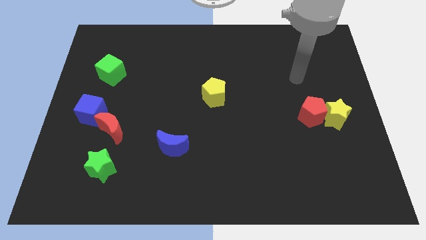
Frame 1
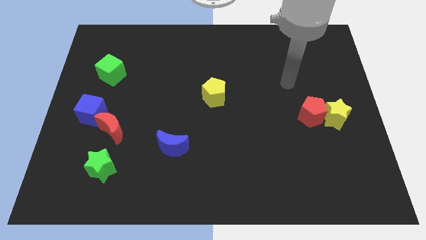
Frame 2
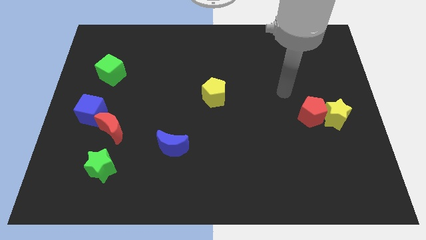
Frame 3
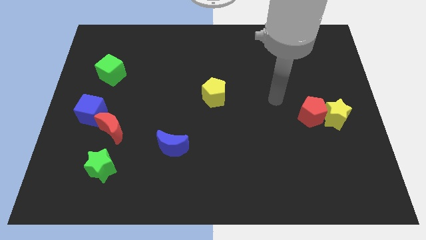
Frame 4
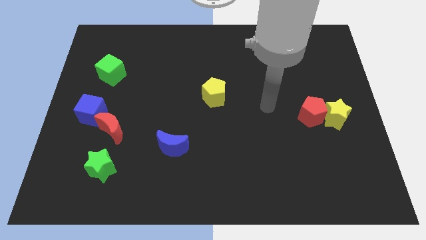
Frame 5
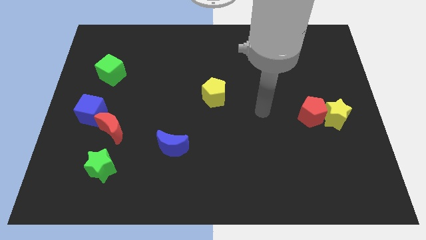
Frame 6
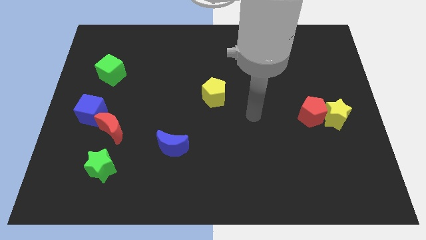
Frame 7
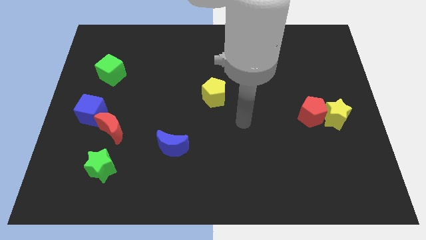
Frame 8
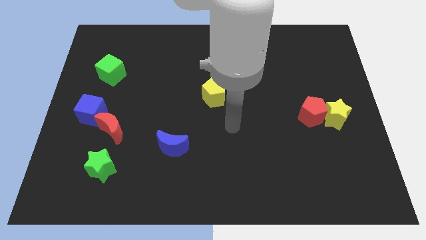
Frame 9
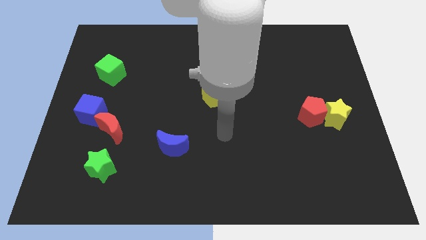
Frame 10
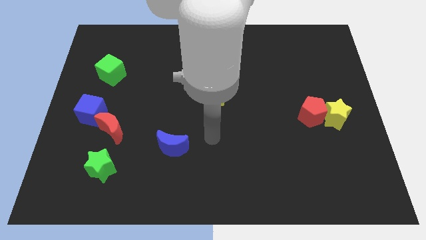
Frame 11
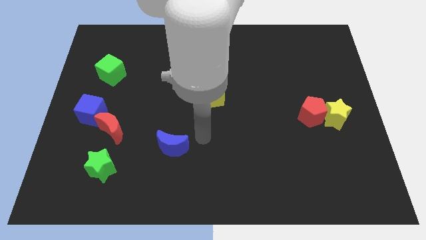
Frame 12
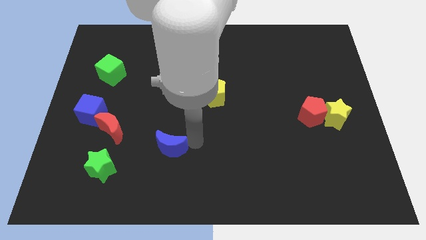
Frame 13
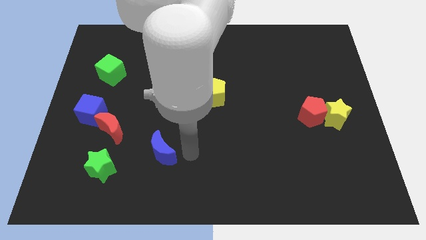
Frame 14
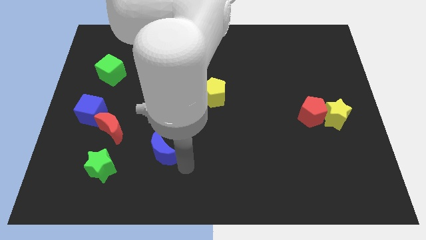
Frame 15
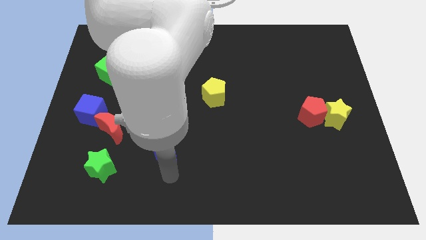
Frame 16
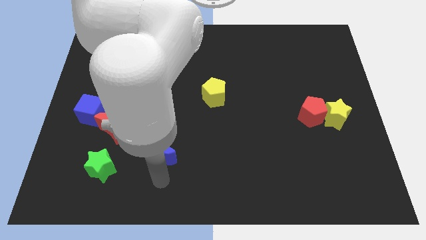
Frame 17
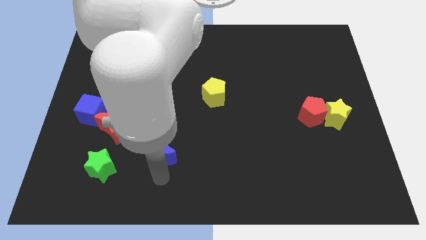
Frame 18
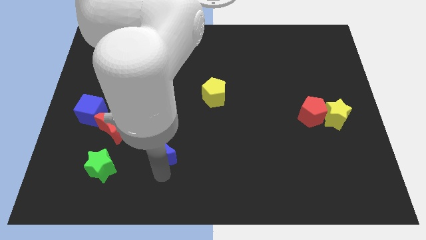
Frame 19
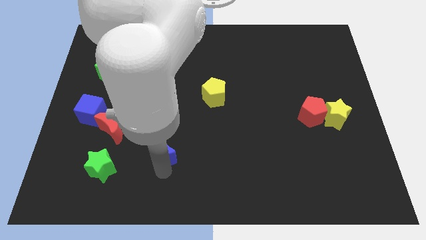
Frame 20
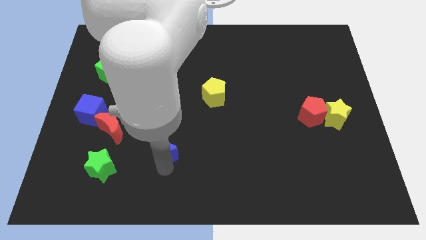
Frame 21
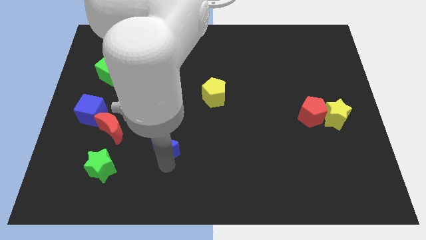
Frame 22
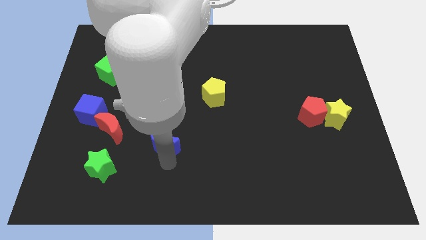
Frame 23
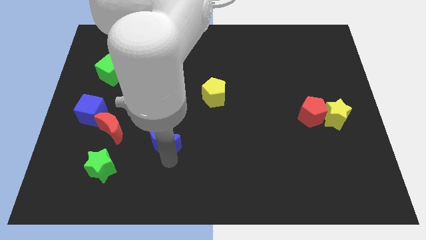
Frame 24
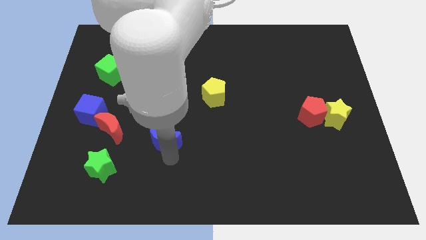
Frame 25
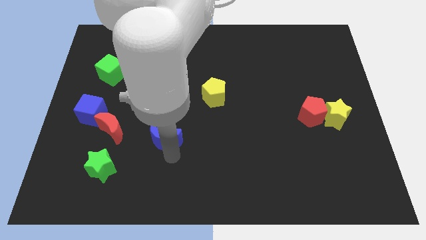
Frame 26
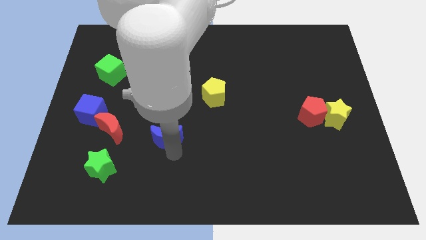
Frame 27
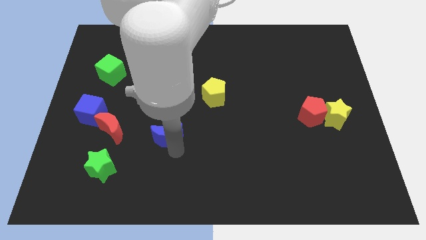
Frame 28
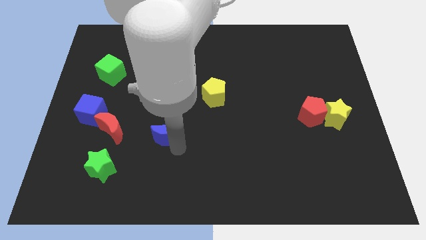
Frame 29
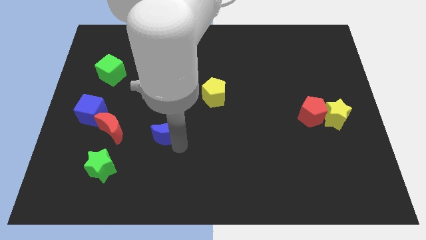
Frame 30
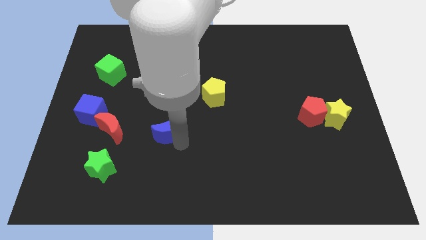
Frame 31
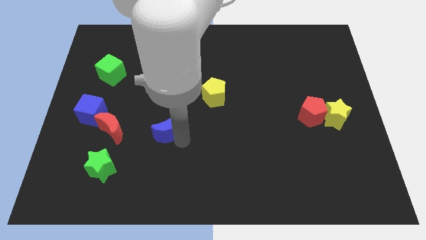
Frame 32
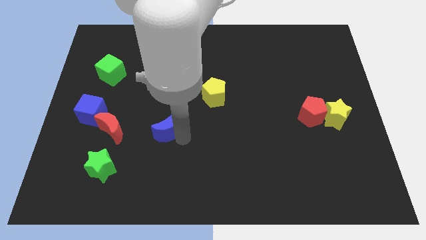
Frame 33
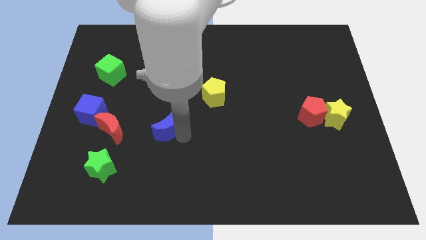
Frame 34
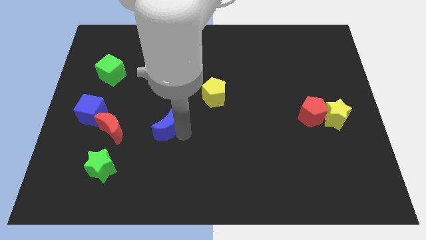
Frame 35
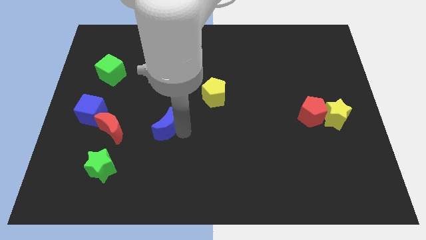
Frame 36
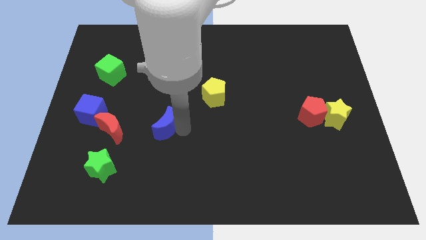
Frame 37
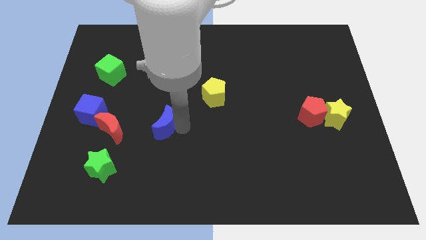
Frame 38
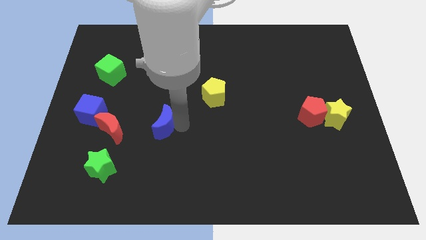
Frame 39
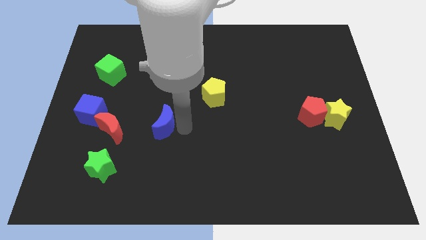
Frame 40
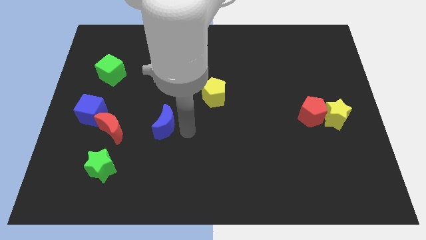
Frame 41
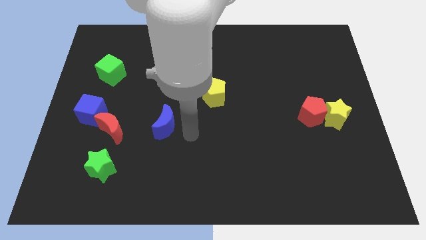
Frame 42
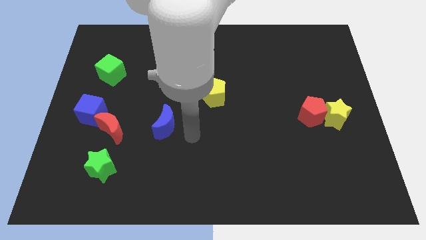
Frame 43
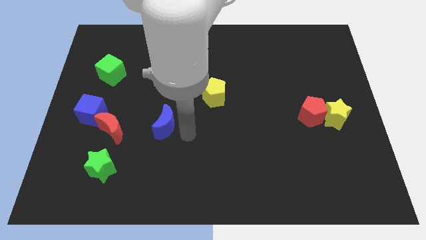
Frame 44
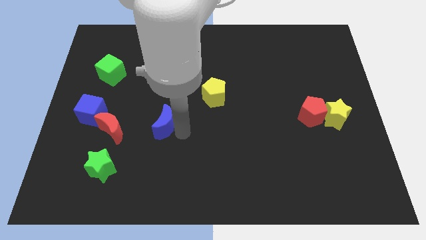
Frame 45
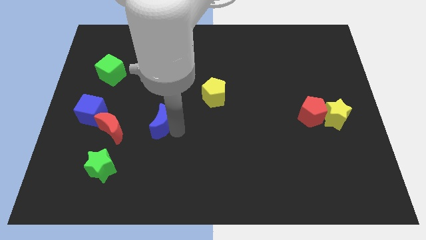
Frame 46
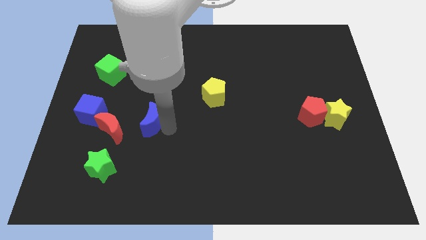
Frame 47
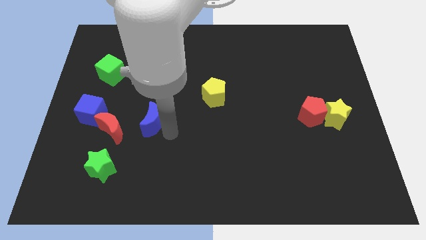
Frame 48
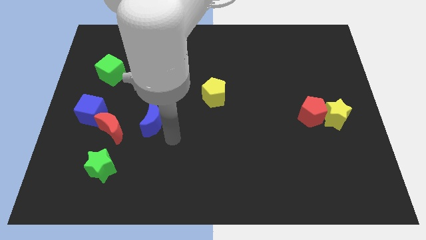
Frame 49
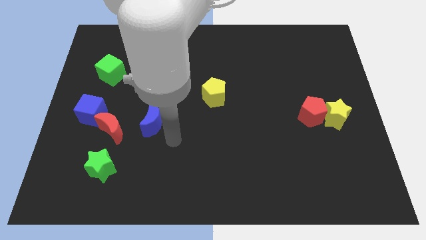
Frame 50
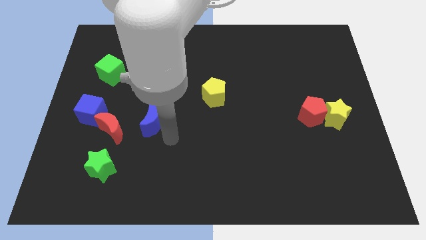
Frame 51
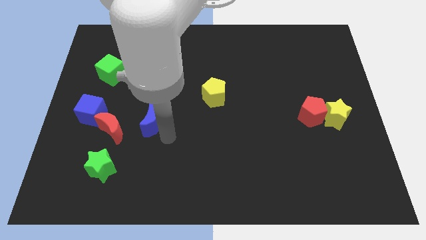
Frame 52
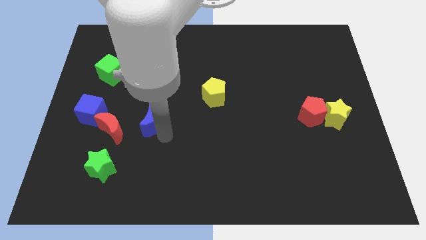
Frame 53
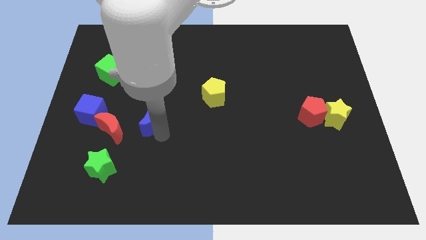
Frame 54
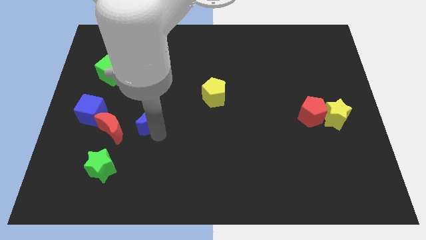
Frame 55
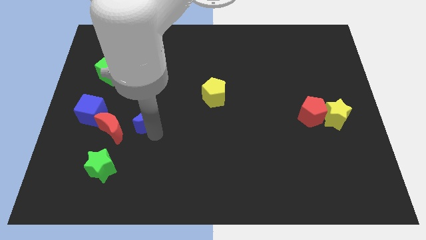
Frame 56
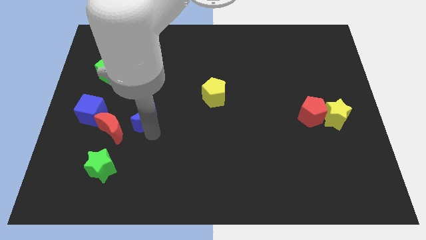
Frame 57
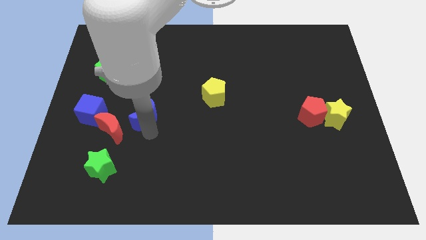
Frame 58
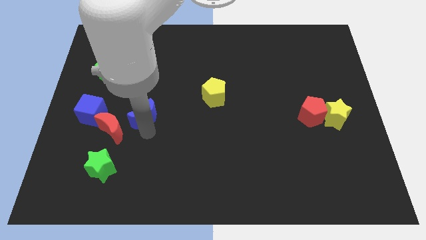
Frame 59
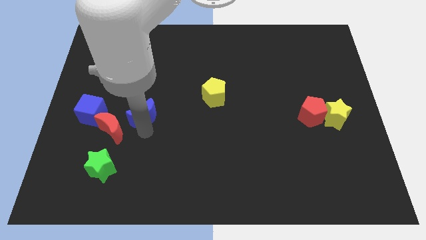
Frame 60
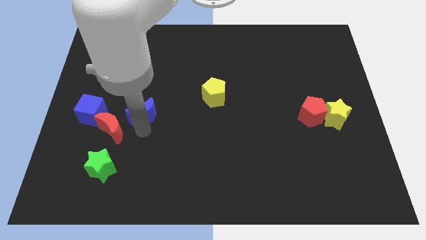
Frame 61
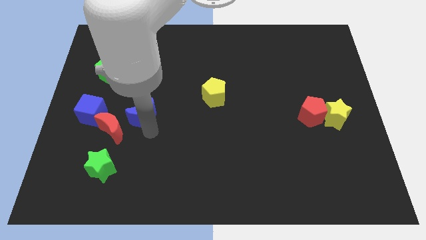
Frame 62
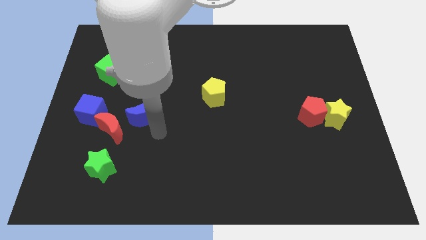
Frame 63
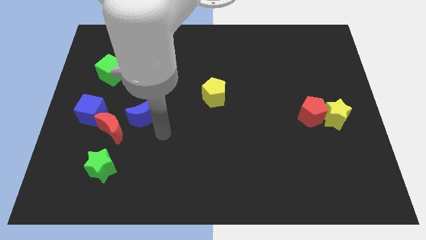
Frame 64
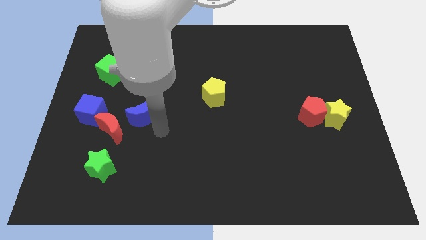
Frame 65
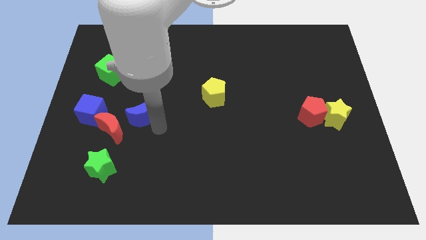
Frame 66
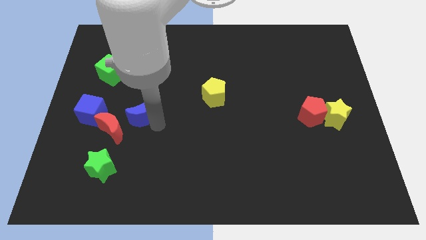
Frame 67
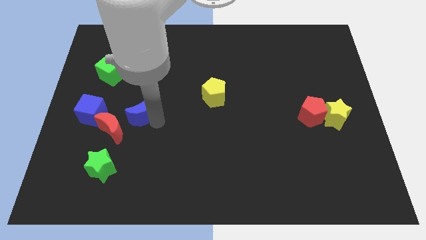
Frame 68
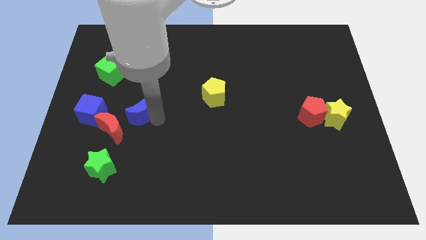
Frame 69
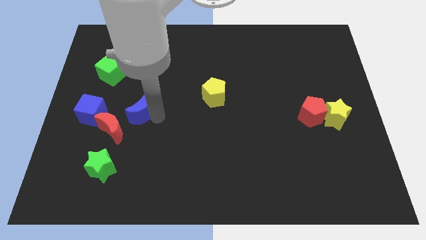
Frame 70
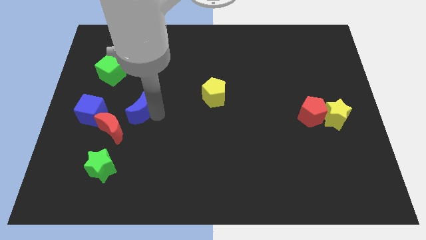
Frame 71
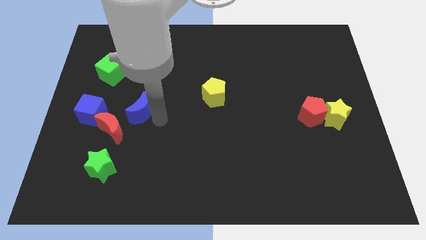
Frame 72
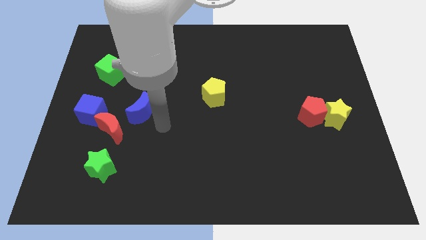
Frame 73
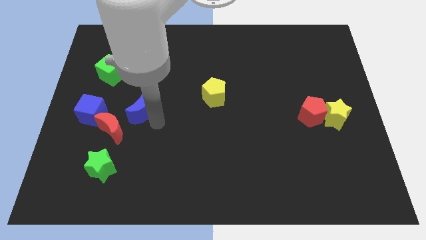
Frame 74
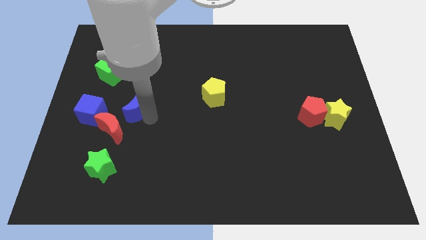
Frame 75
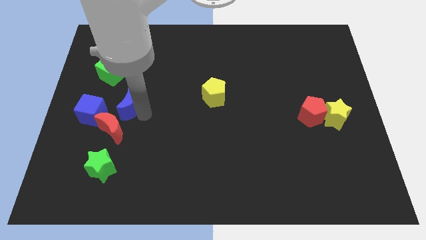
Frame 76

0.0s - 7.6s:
put the blue moon diagonally up and to the right of the blue cube
